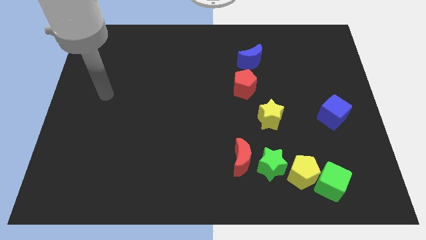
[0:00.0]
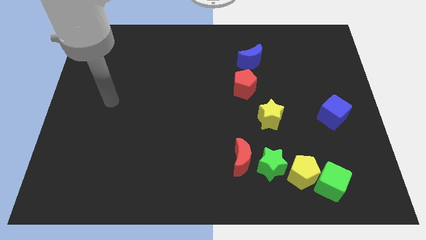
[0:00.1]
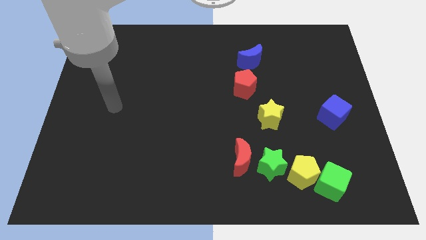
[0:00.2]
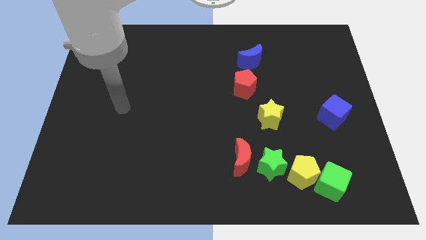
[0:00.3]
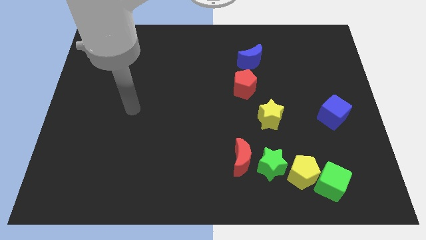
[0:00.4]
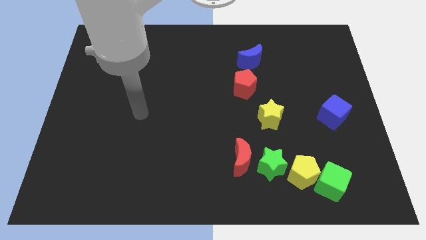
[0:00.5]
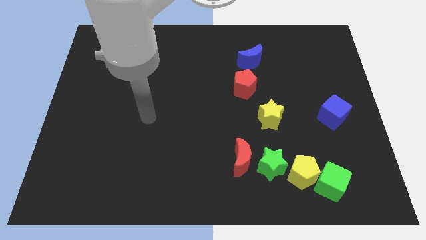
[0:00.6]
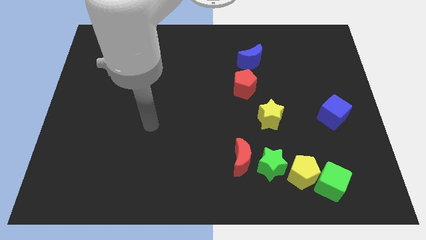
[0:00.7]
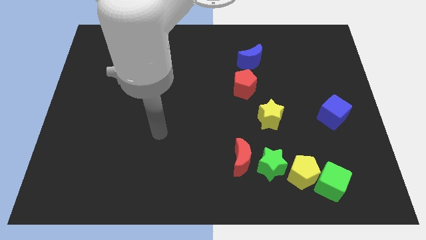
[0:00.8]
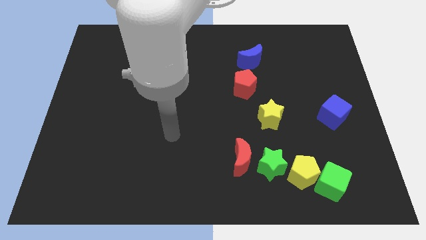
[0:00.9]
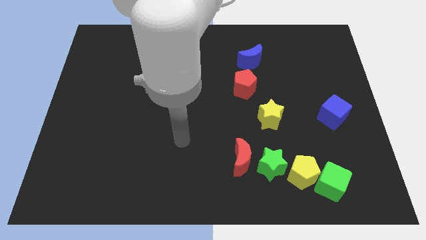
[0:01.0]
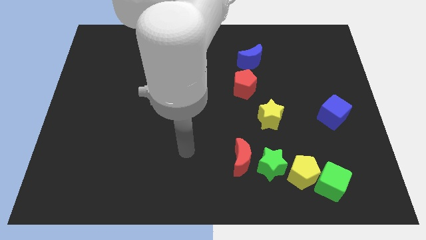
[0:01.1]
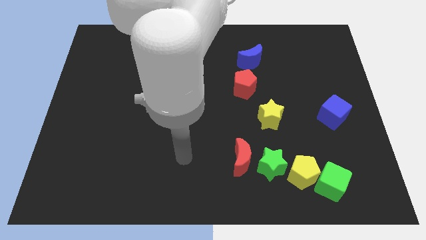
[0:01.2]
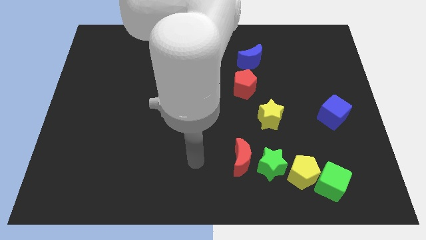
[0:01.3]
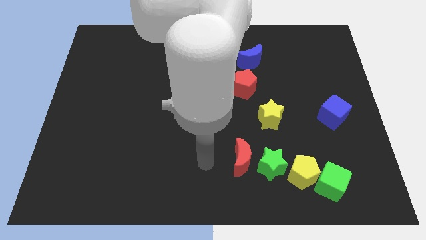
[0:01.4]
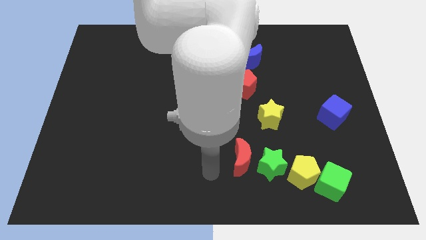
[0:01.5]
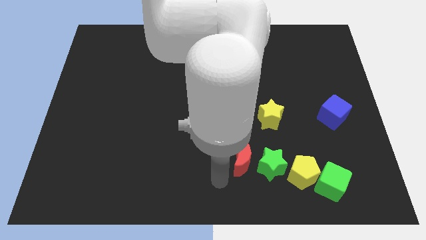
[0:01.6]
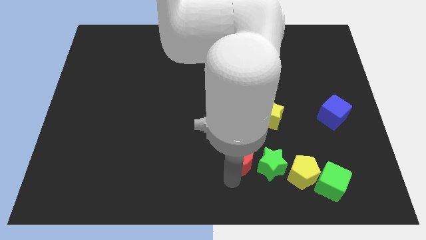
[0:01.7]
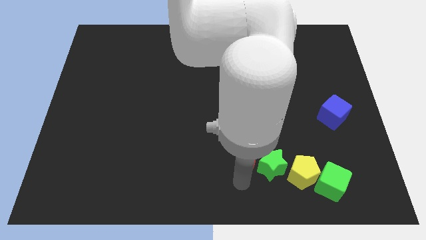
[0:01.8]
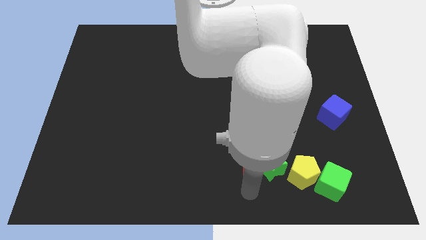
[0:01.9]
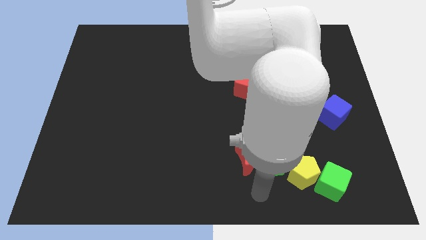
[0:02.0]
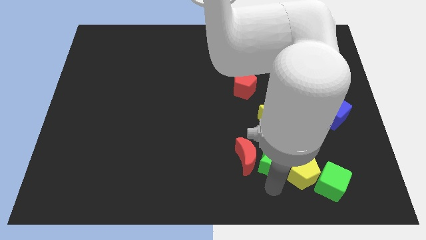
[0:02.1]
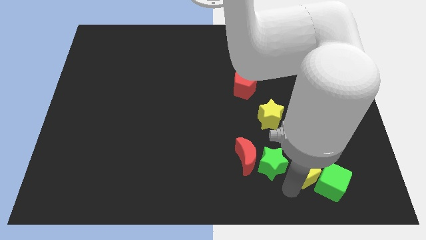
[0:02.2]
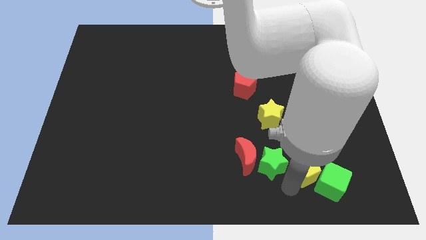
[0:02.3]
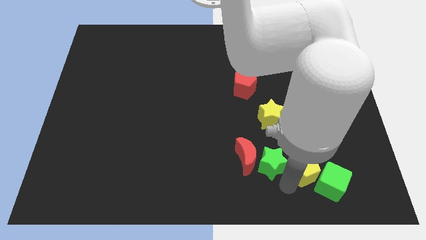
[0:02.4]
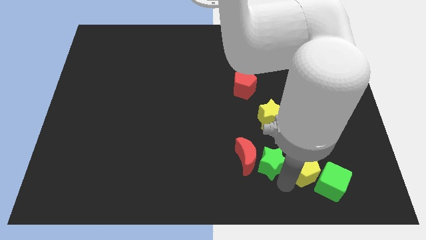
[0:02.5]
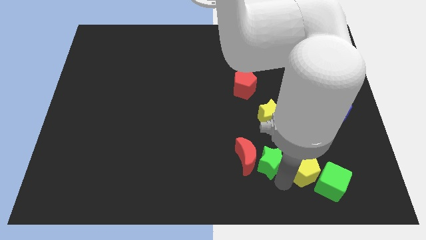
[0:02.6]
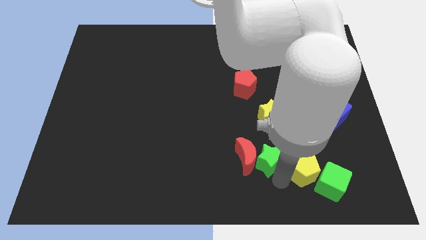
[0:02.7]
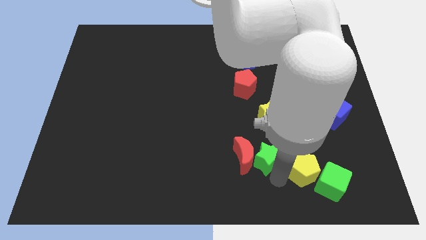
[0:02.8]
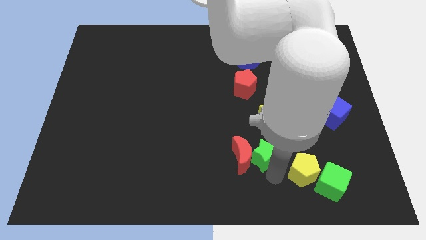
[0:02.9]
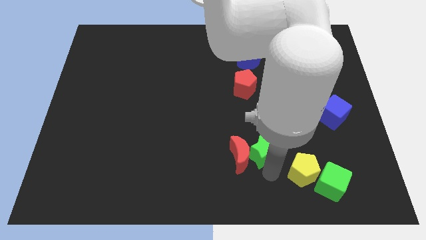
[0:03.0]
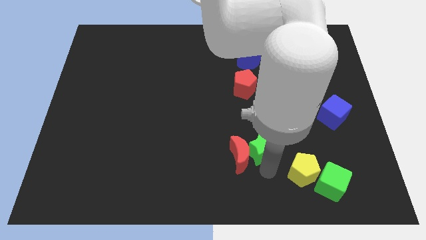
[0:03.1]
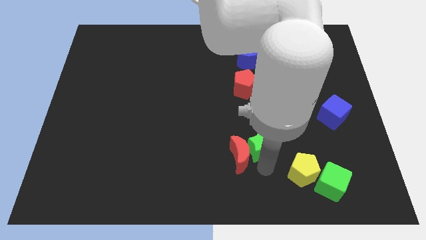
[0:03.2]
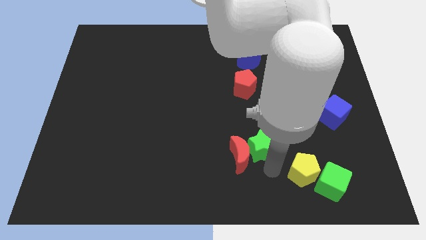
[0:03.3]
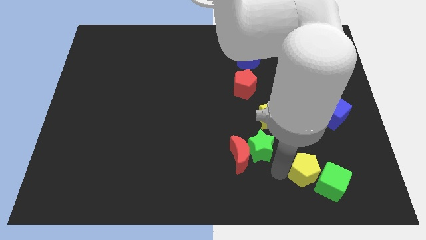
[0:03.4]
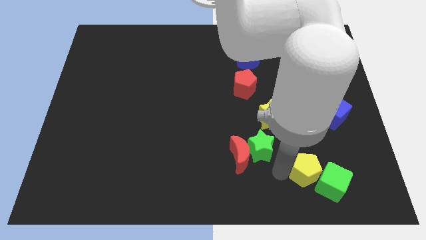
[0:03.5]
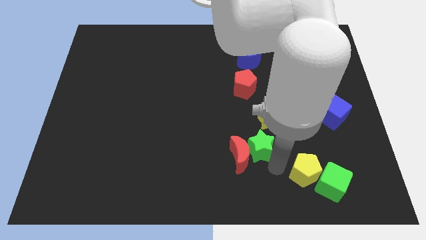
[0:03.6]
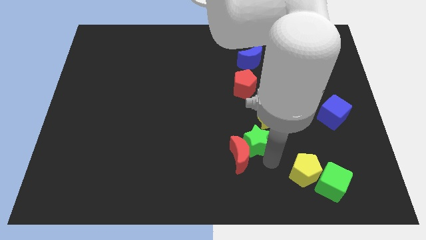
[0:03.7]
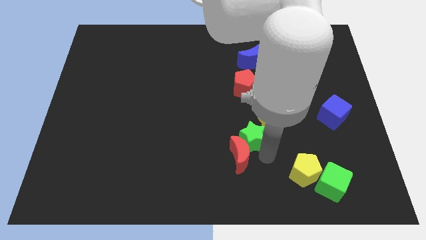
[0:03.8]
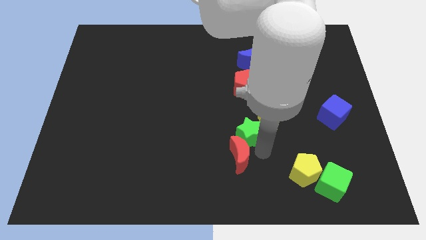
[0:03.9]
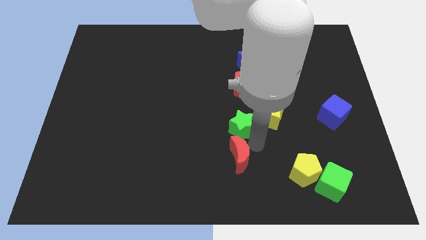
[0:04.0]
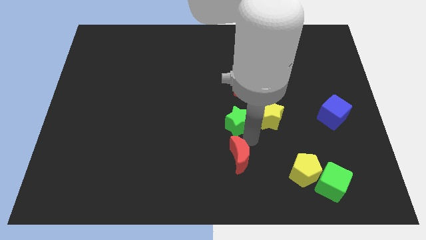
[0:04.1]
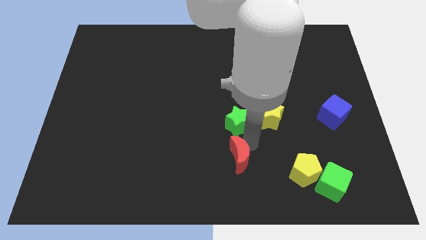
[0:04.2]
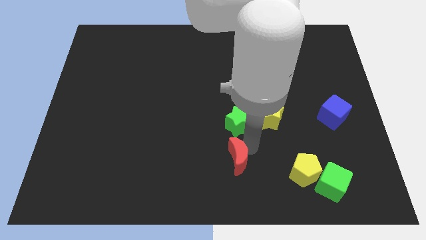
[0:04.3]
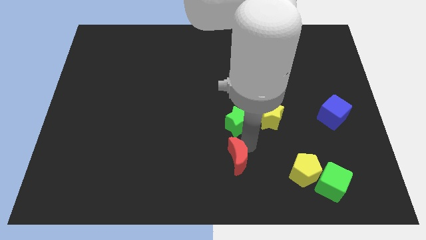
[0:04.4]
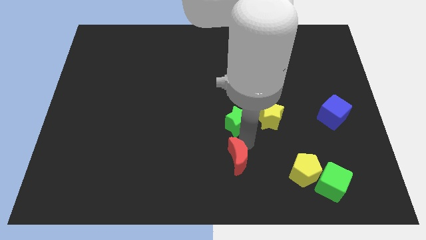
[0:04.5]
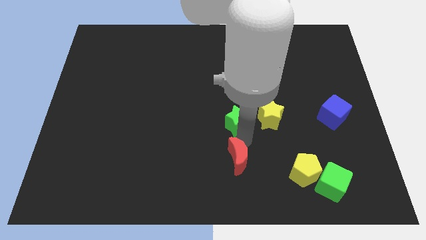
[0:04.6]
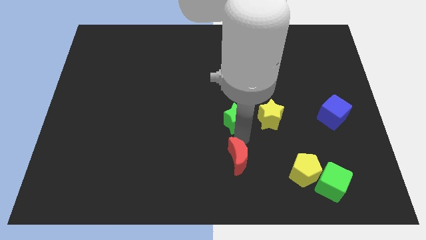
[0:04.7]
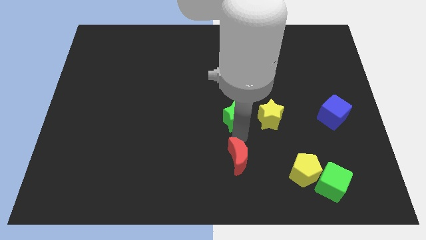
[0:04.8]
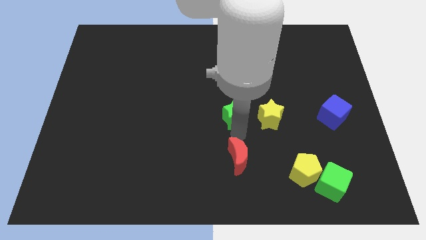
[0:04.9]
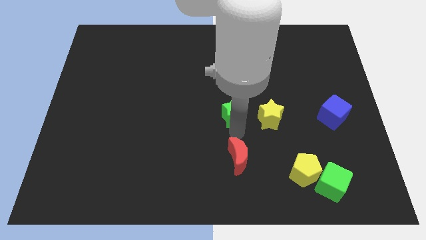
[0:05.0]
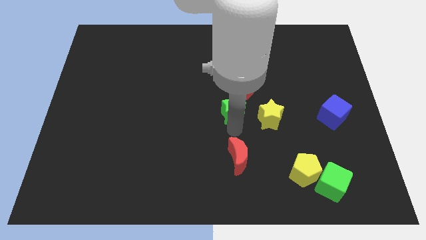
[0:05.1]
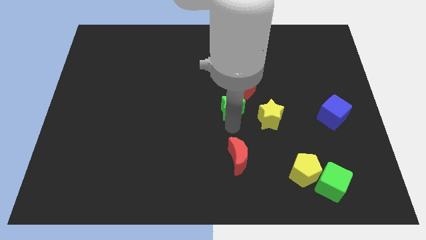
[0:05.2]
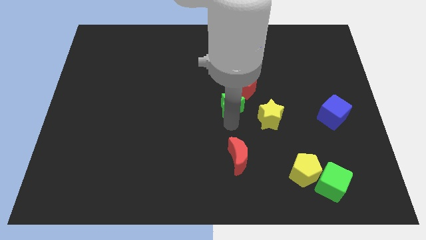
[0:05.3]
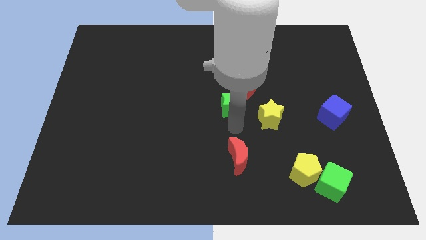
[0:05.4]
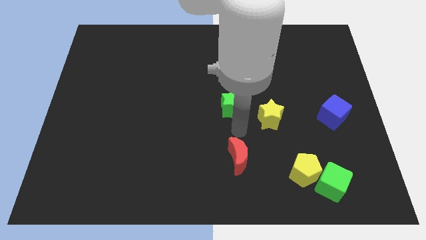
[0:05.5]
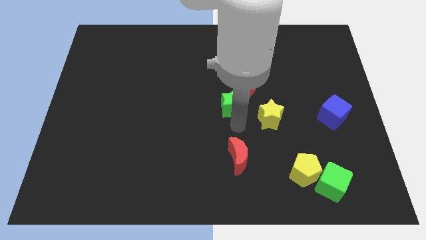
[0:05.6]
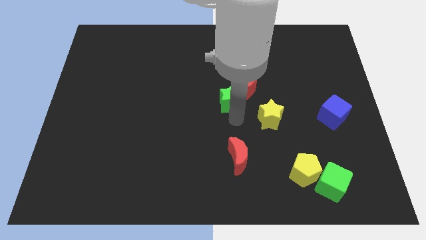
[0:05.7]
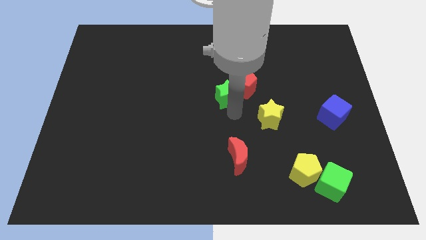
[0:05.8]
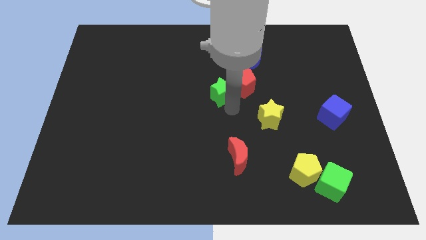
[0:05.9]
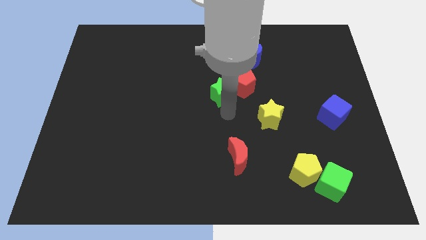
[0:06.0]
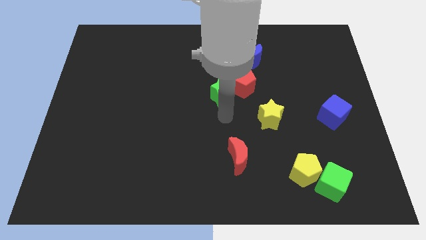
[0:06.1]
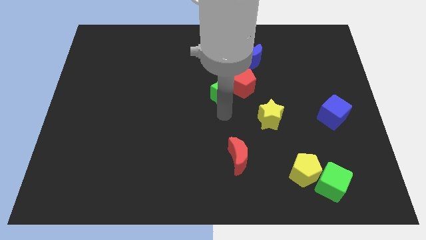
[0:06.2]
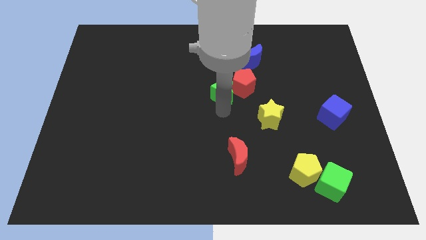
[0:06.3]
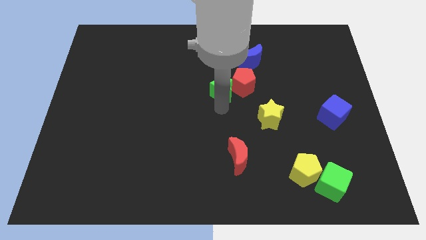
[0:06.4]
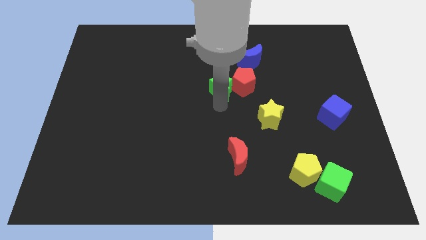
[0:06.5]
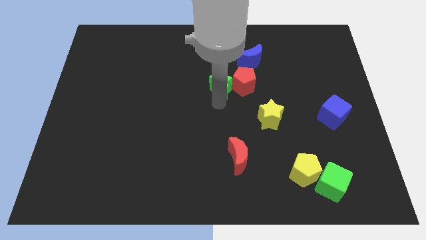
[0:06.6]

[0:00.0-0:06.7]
put the green star to the top left of the red pentagon

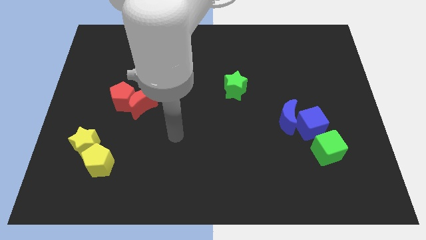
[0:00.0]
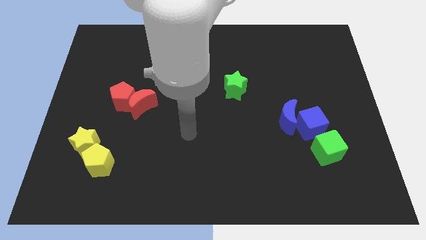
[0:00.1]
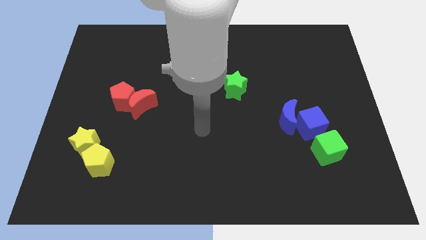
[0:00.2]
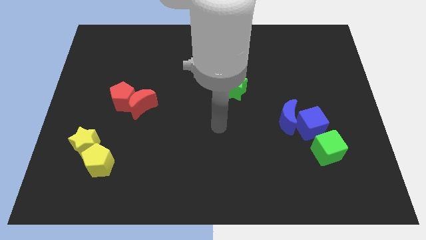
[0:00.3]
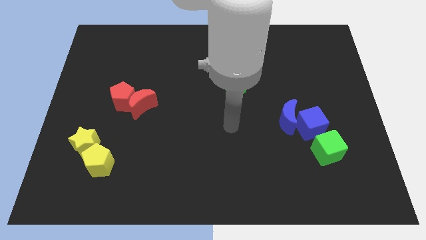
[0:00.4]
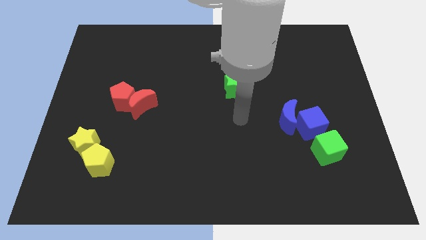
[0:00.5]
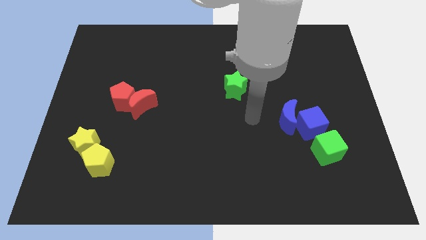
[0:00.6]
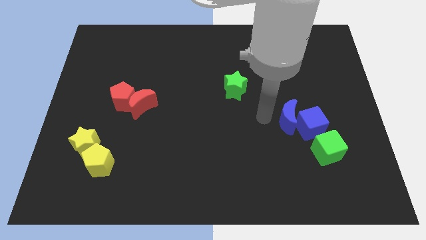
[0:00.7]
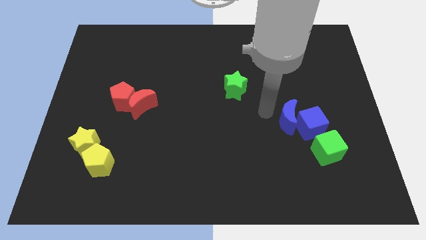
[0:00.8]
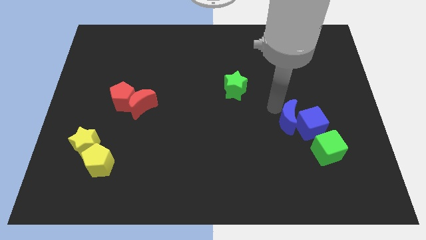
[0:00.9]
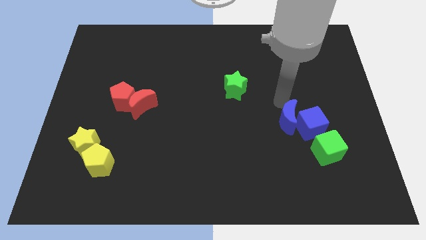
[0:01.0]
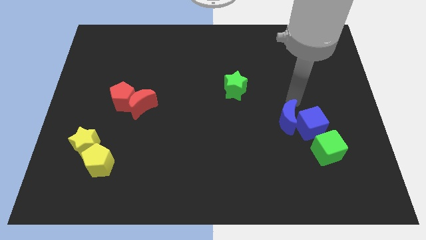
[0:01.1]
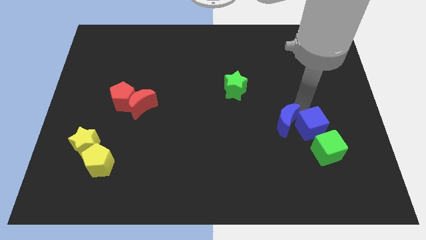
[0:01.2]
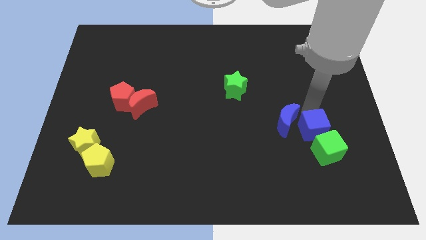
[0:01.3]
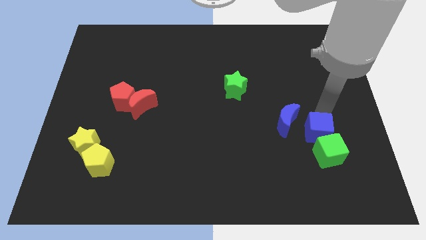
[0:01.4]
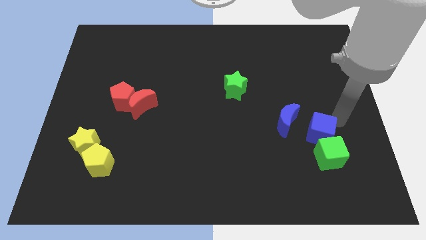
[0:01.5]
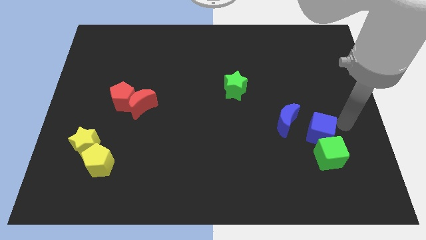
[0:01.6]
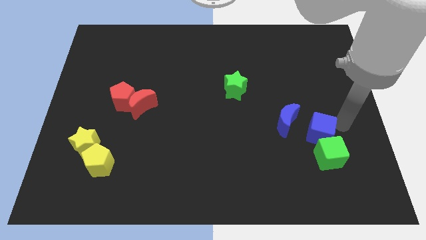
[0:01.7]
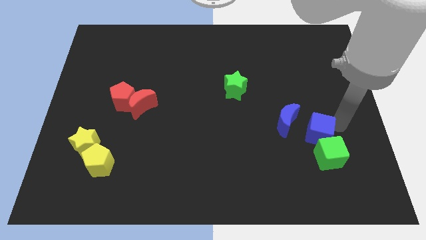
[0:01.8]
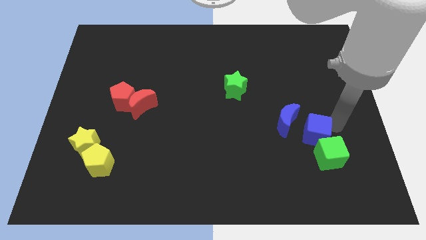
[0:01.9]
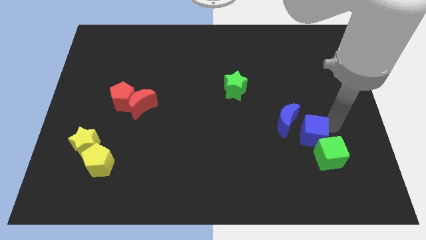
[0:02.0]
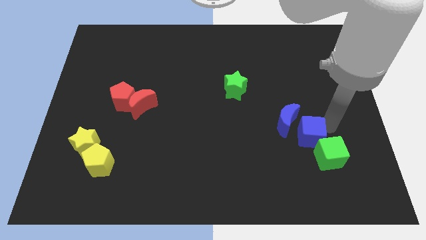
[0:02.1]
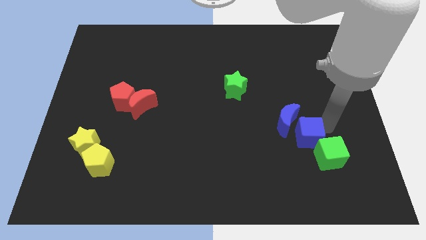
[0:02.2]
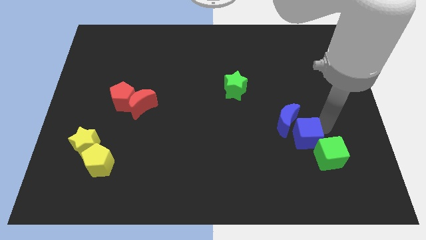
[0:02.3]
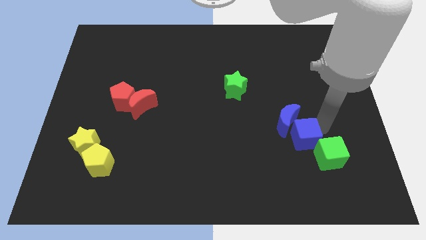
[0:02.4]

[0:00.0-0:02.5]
push the blue cube just left of the green cube
